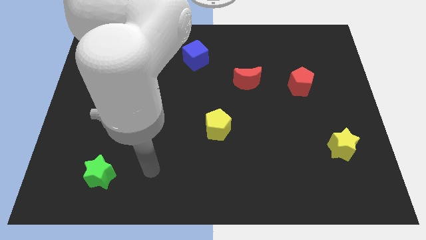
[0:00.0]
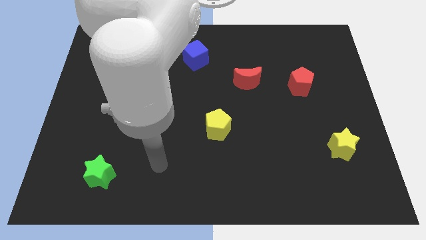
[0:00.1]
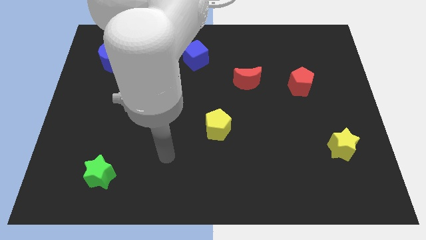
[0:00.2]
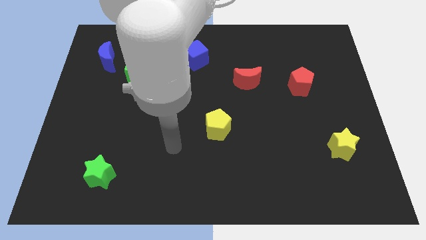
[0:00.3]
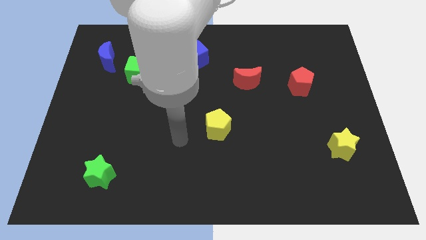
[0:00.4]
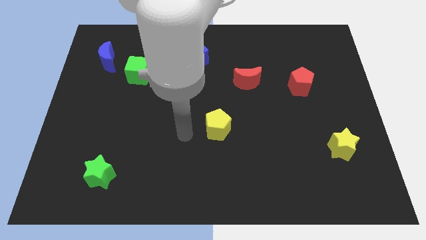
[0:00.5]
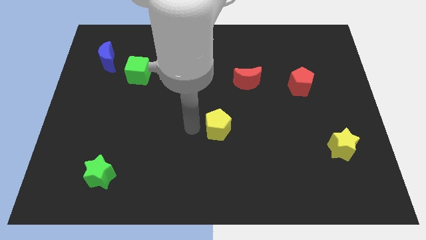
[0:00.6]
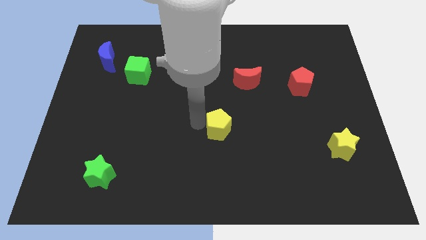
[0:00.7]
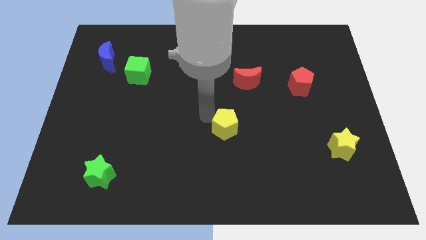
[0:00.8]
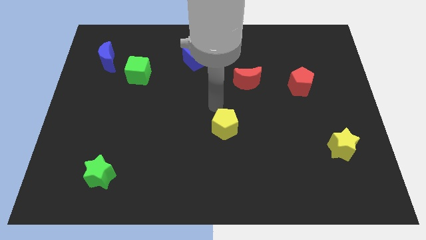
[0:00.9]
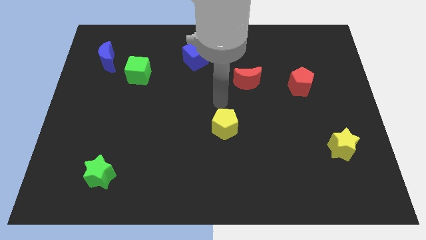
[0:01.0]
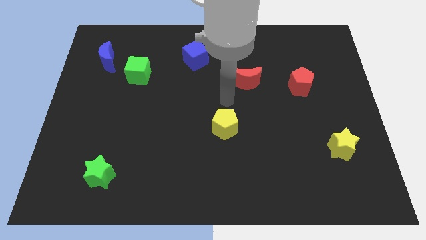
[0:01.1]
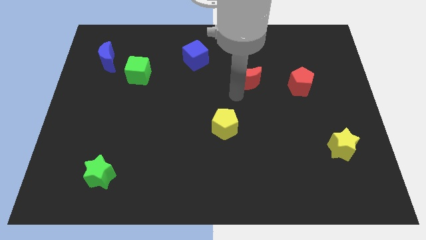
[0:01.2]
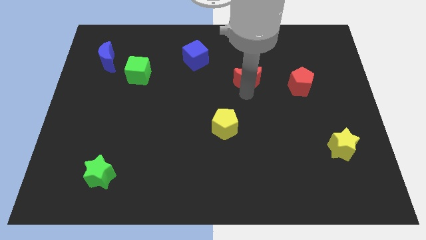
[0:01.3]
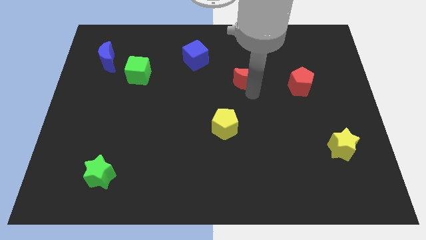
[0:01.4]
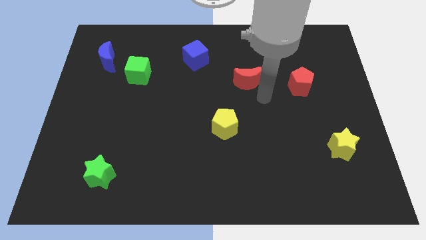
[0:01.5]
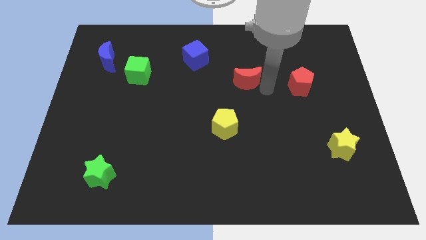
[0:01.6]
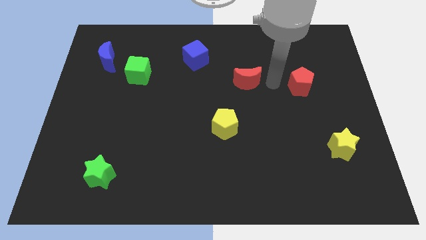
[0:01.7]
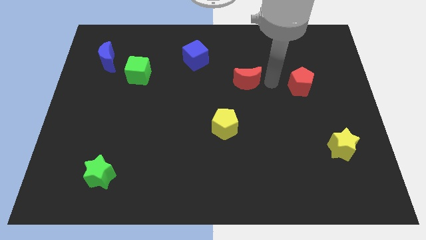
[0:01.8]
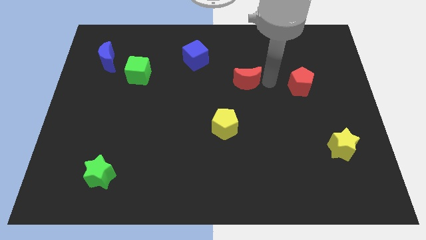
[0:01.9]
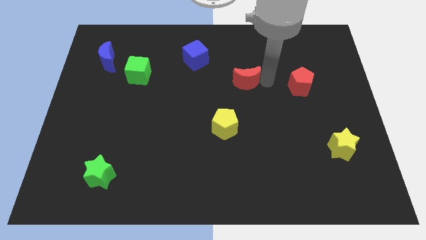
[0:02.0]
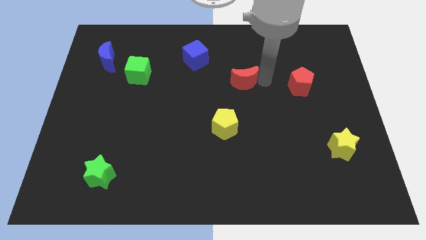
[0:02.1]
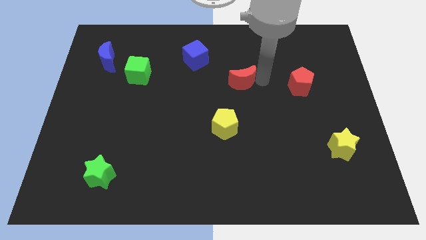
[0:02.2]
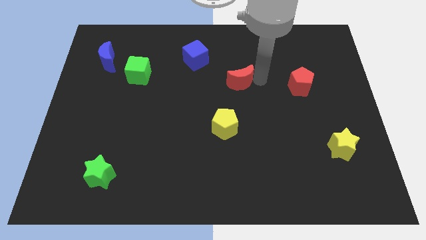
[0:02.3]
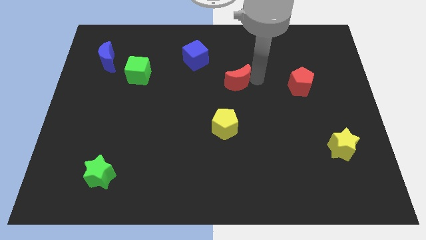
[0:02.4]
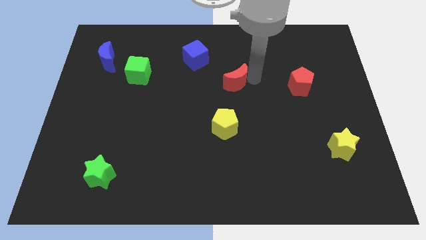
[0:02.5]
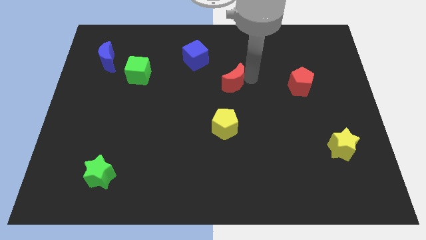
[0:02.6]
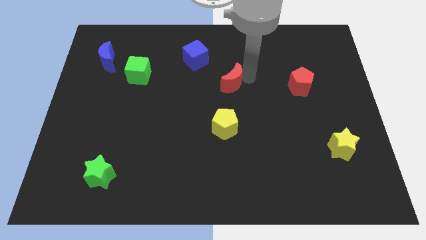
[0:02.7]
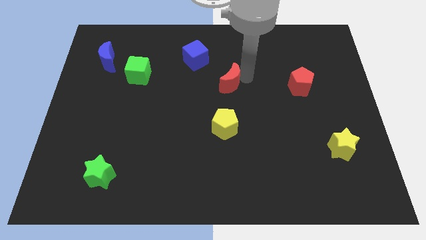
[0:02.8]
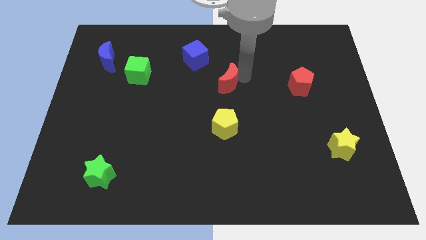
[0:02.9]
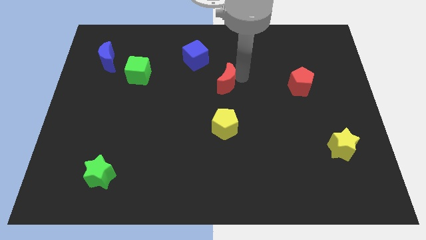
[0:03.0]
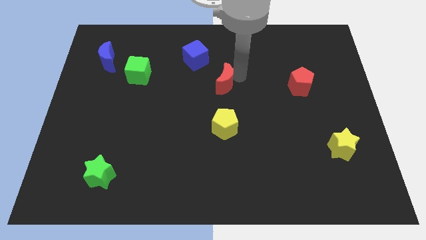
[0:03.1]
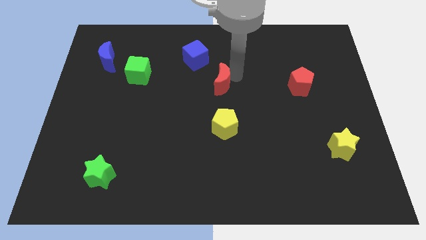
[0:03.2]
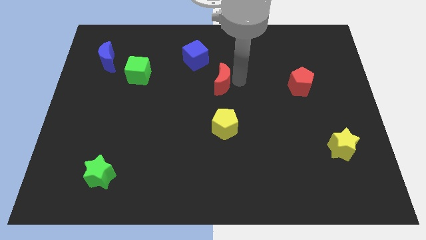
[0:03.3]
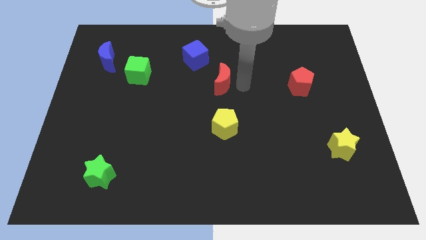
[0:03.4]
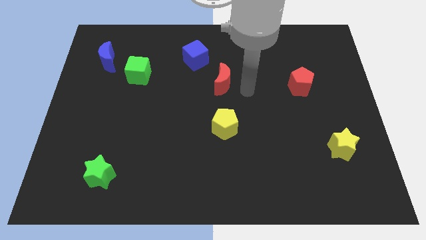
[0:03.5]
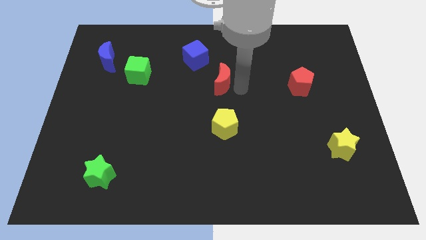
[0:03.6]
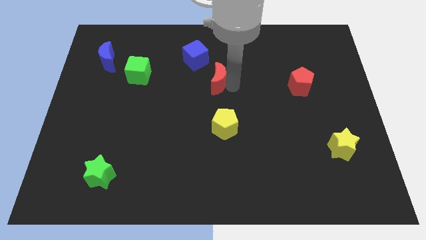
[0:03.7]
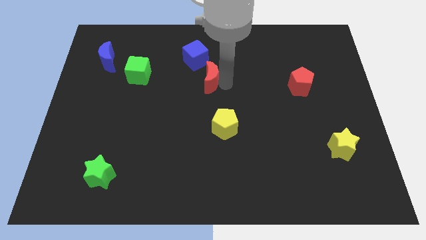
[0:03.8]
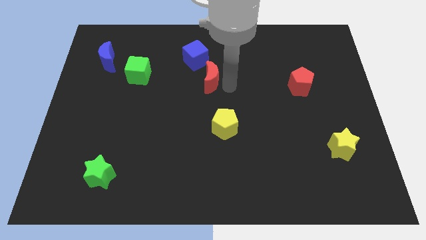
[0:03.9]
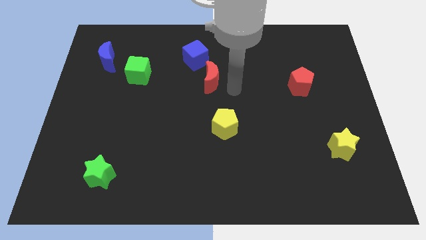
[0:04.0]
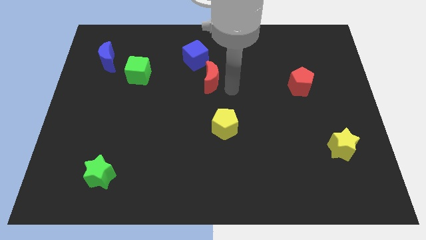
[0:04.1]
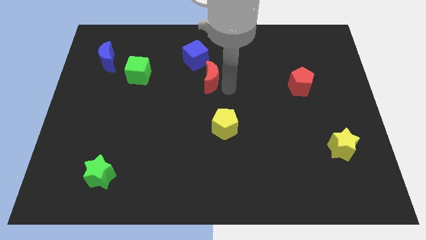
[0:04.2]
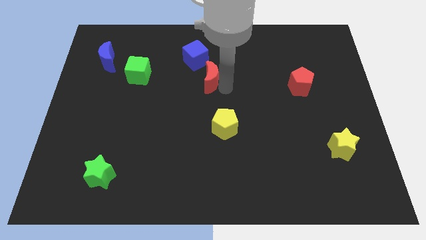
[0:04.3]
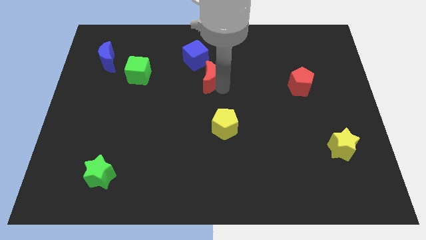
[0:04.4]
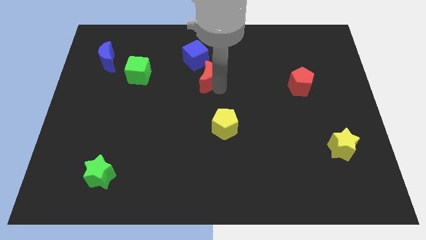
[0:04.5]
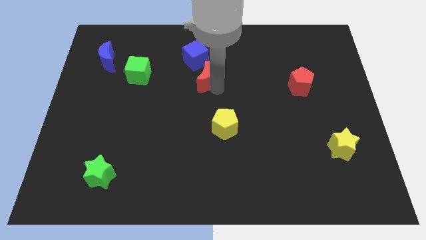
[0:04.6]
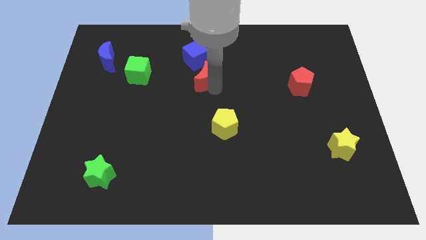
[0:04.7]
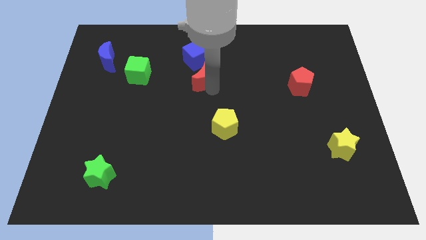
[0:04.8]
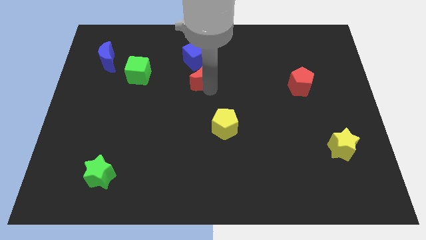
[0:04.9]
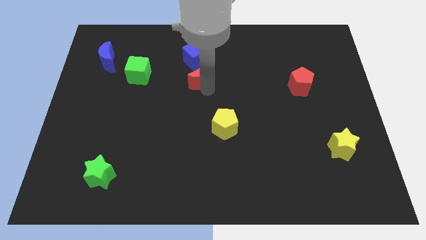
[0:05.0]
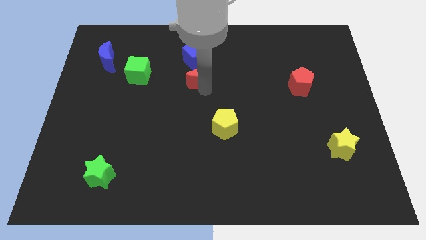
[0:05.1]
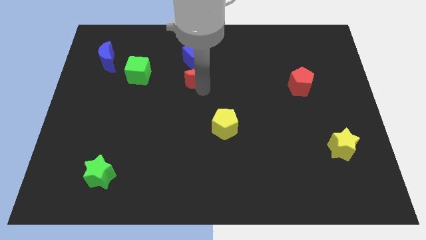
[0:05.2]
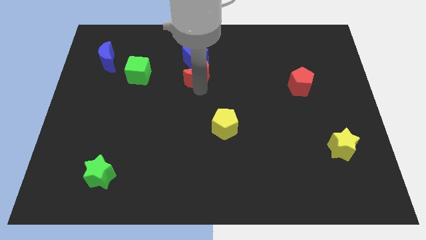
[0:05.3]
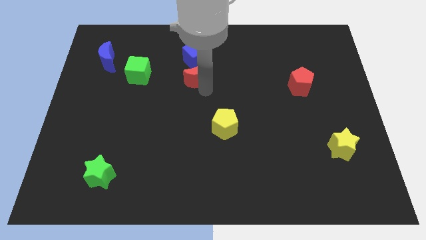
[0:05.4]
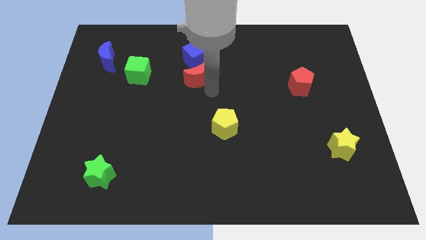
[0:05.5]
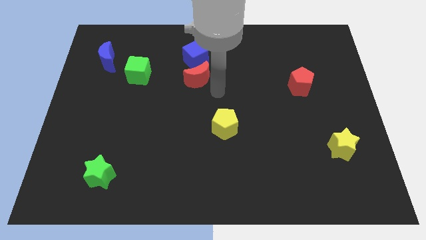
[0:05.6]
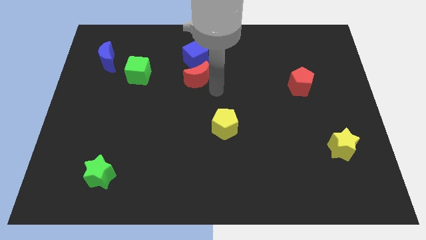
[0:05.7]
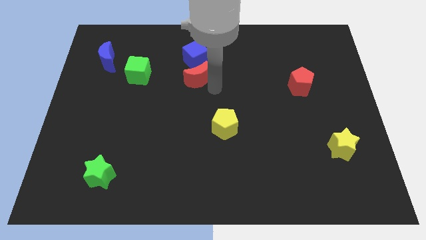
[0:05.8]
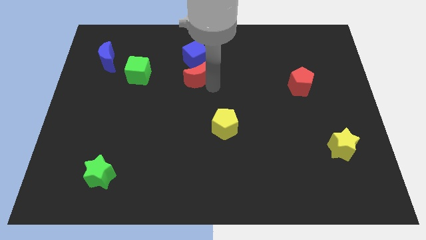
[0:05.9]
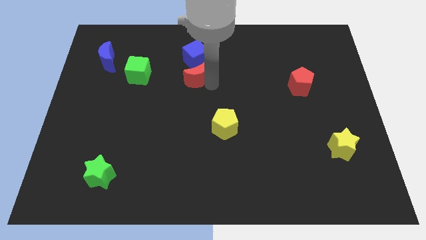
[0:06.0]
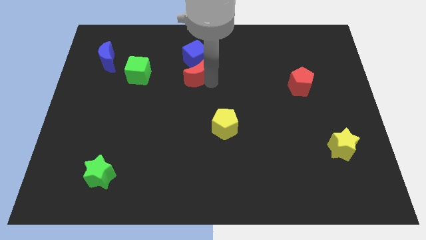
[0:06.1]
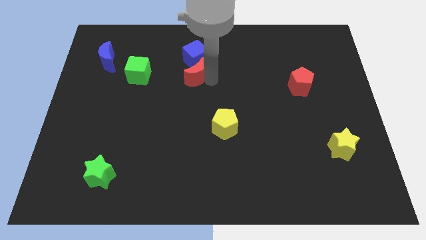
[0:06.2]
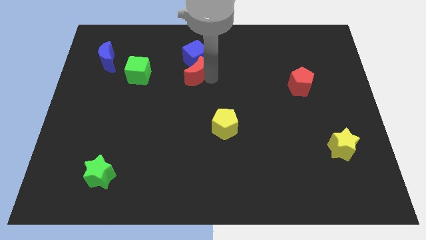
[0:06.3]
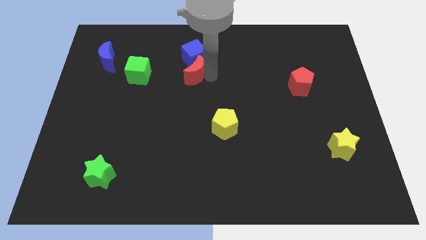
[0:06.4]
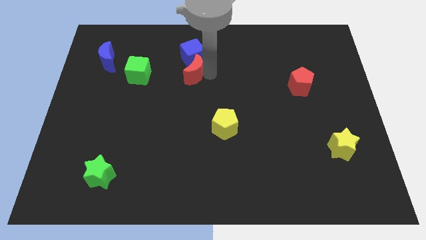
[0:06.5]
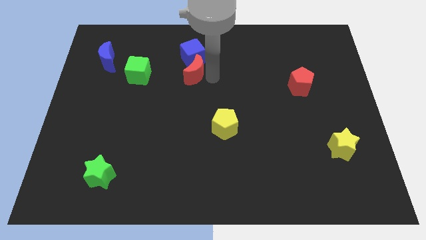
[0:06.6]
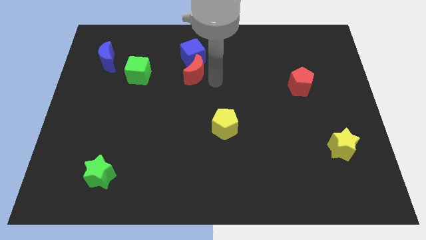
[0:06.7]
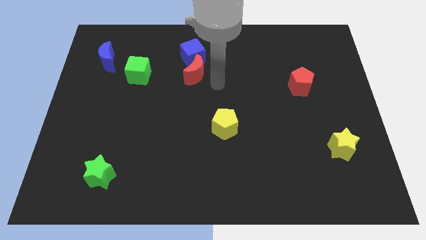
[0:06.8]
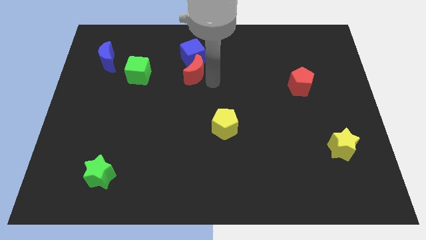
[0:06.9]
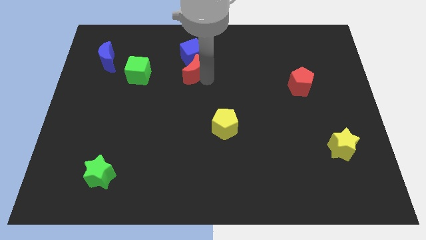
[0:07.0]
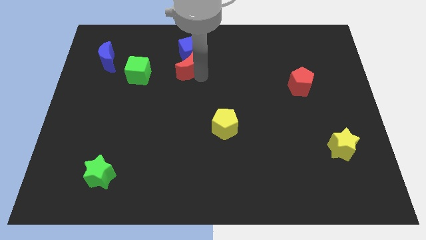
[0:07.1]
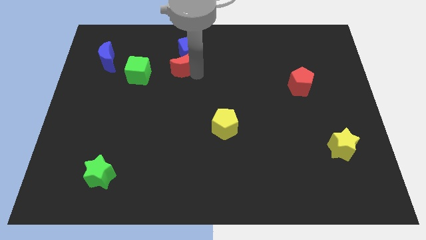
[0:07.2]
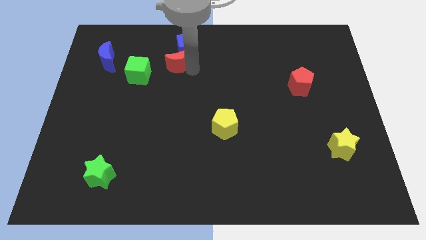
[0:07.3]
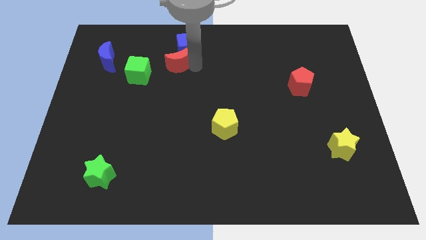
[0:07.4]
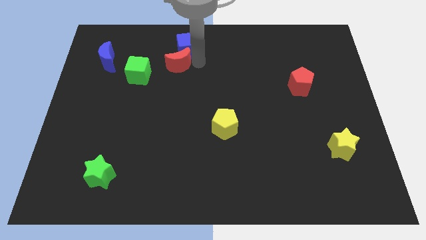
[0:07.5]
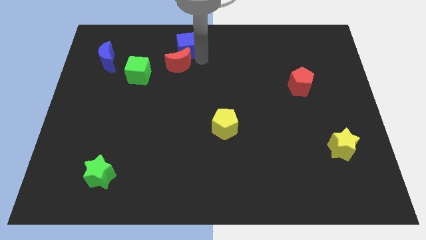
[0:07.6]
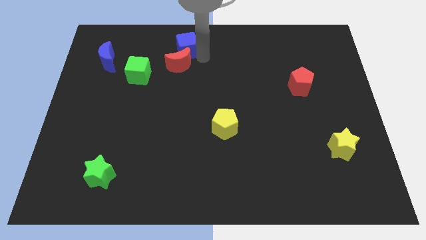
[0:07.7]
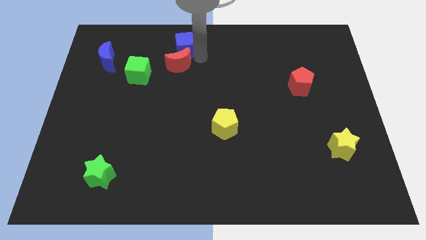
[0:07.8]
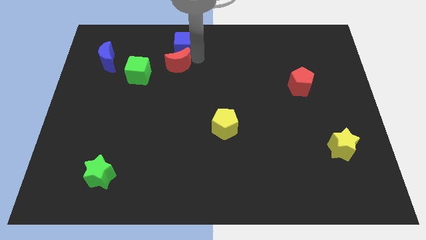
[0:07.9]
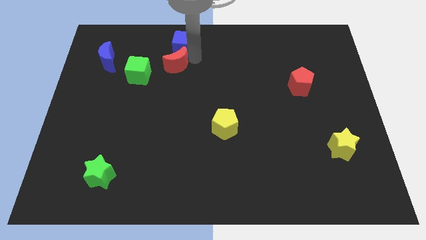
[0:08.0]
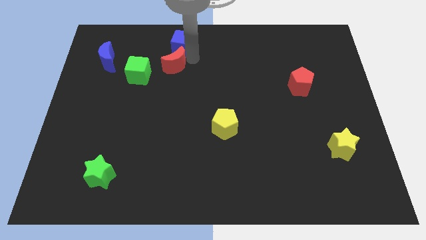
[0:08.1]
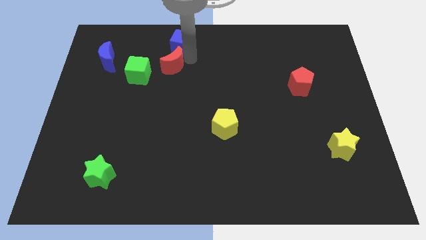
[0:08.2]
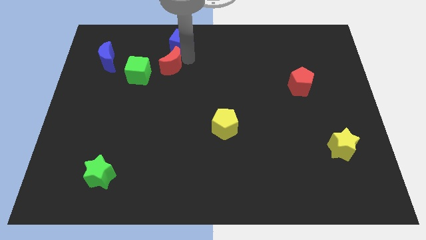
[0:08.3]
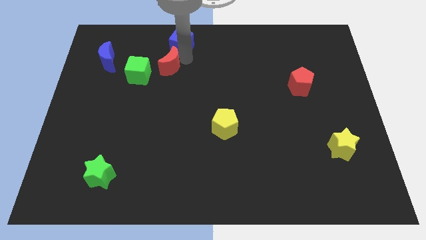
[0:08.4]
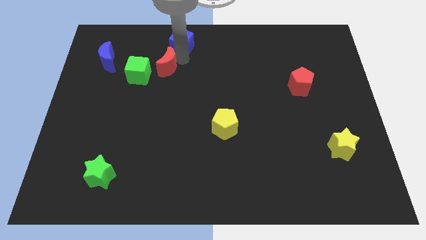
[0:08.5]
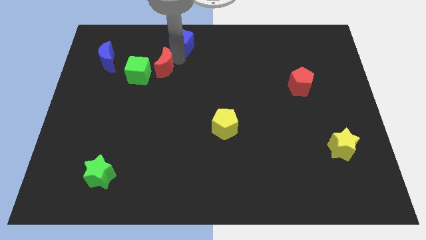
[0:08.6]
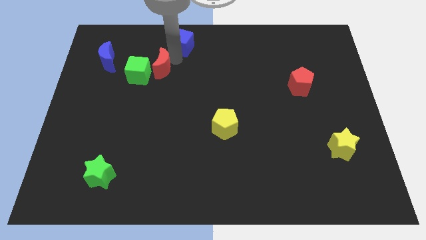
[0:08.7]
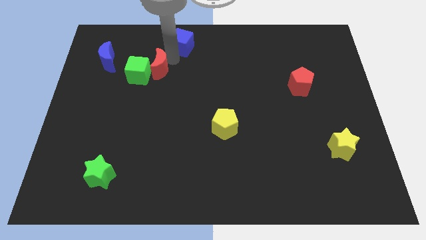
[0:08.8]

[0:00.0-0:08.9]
put the red moon to the green cube
